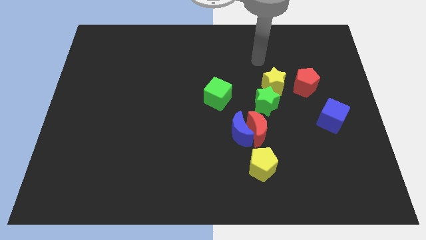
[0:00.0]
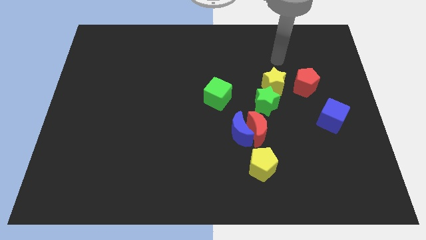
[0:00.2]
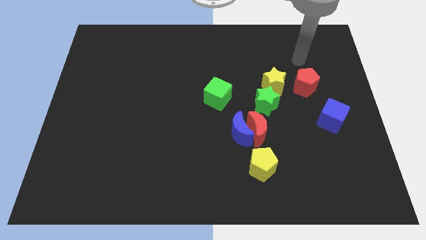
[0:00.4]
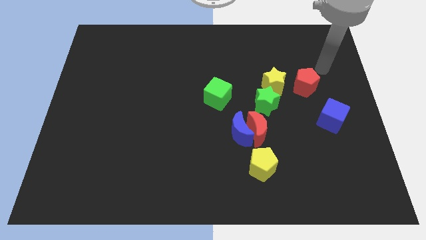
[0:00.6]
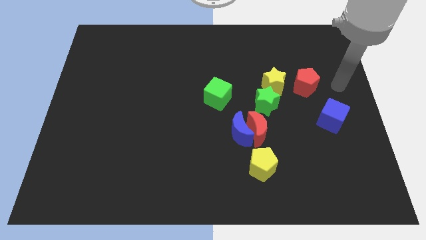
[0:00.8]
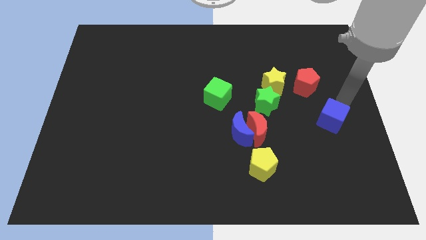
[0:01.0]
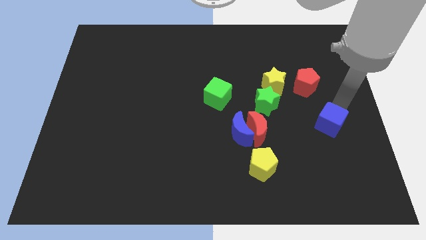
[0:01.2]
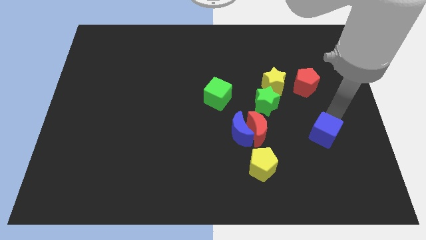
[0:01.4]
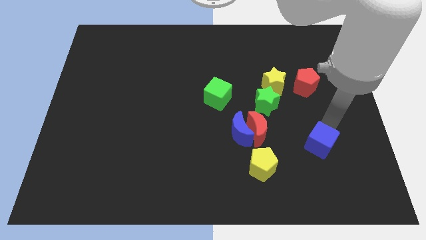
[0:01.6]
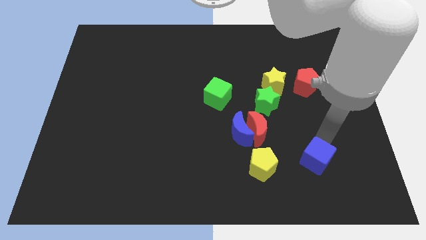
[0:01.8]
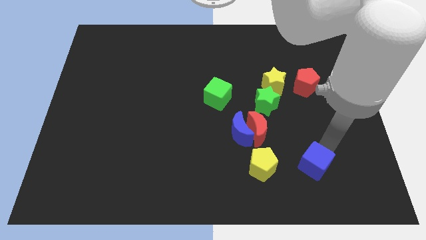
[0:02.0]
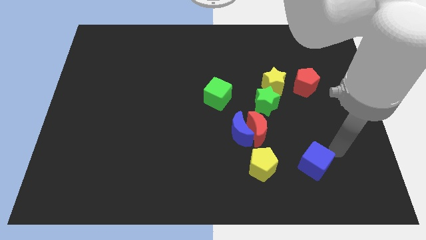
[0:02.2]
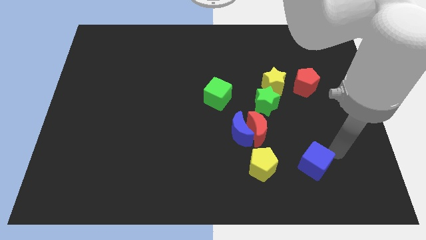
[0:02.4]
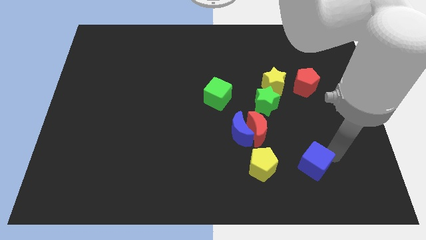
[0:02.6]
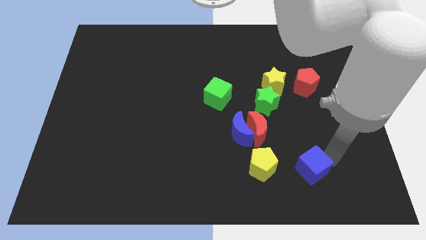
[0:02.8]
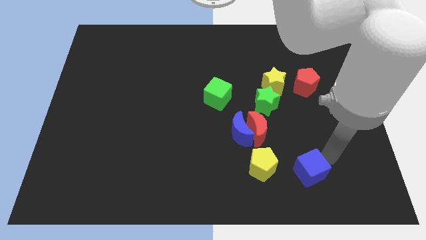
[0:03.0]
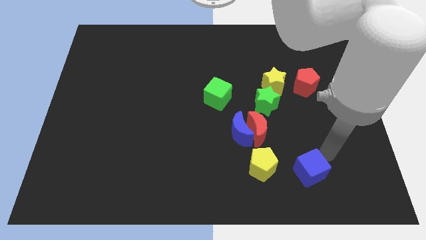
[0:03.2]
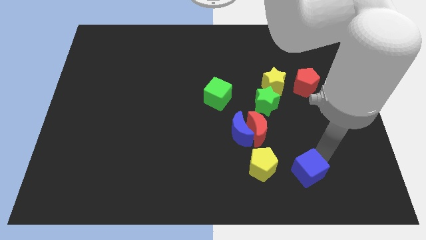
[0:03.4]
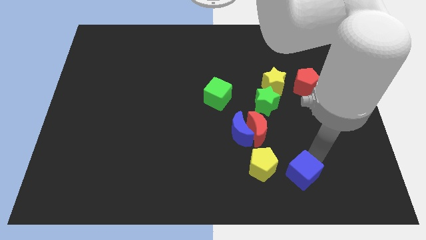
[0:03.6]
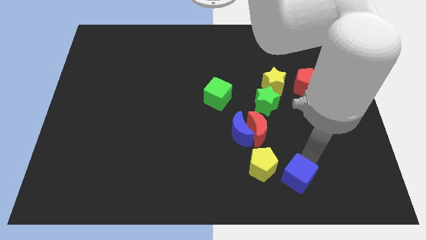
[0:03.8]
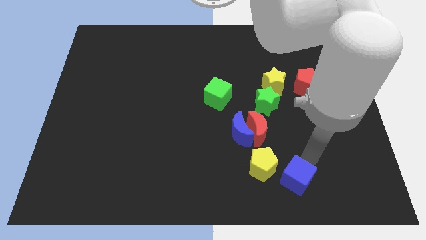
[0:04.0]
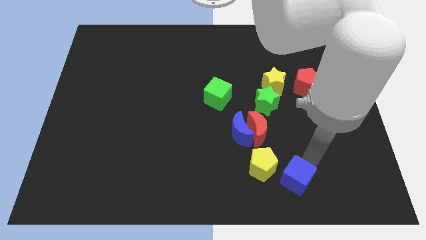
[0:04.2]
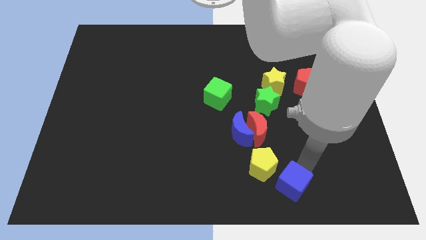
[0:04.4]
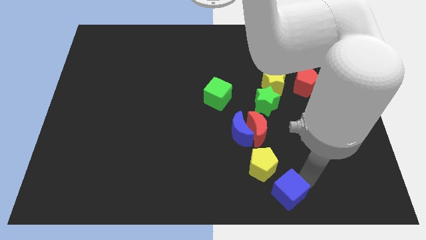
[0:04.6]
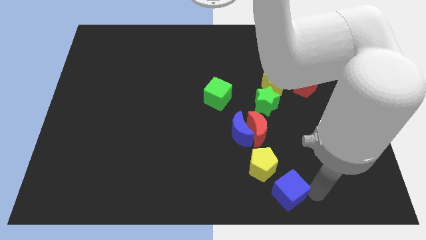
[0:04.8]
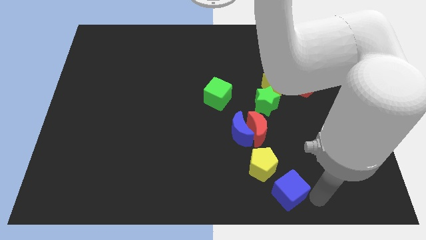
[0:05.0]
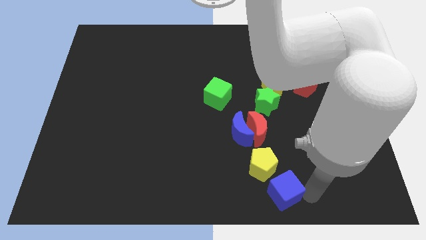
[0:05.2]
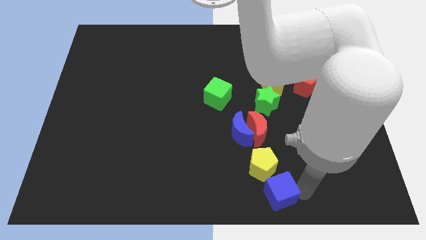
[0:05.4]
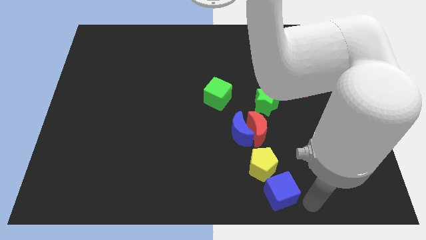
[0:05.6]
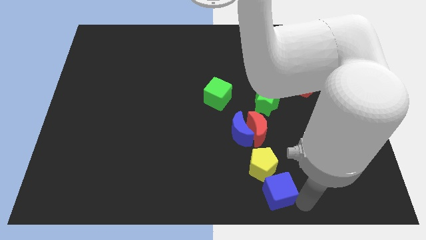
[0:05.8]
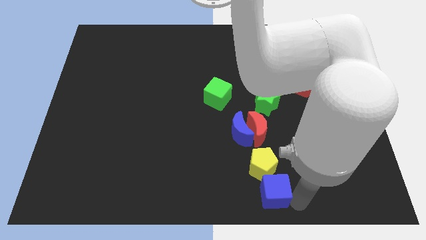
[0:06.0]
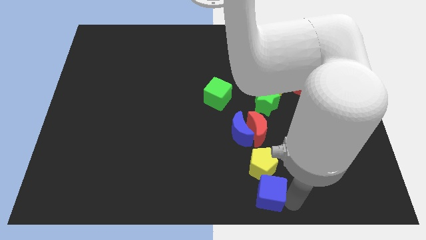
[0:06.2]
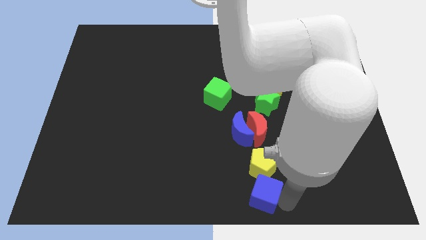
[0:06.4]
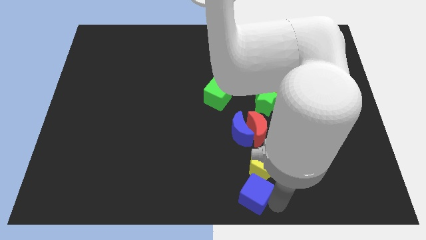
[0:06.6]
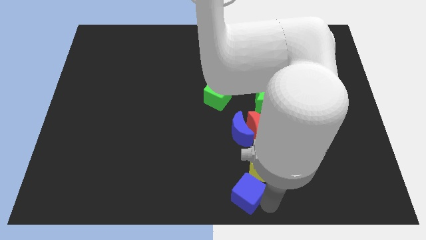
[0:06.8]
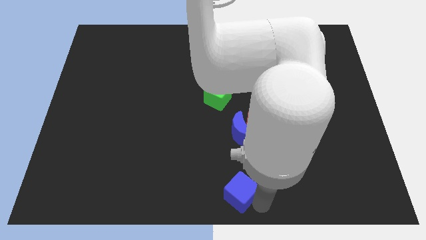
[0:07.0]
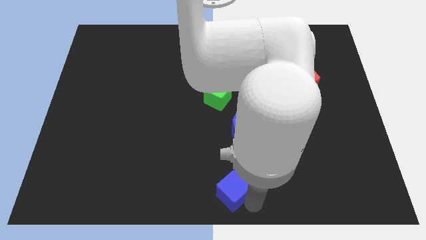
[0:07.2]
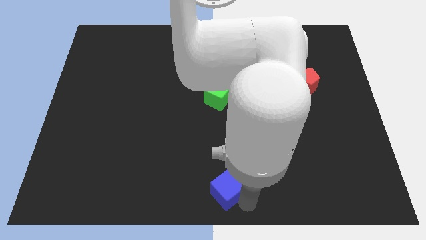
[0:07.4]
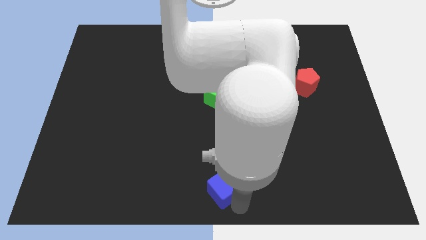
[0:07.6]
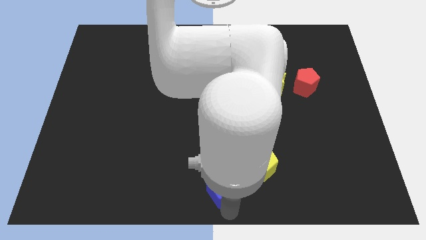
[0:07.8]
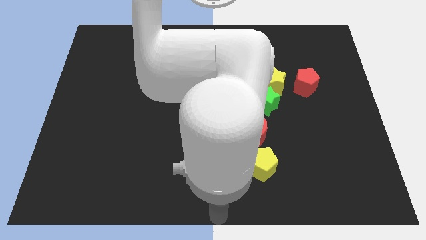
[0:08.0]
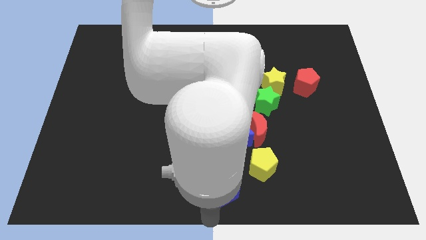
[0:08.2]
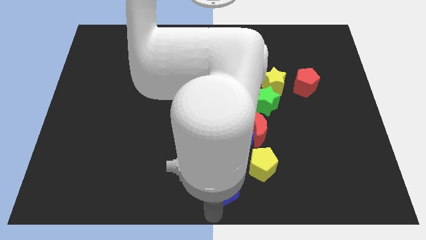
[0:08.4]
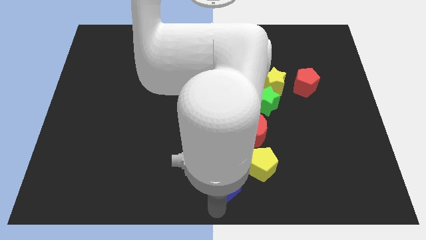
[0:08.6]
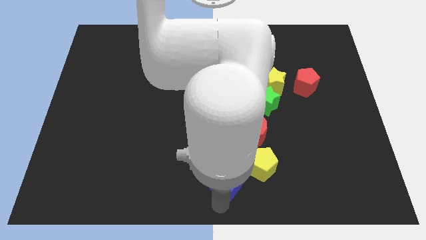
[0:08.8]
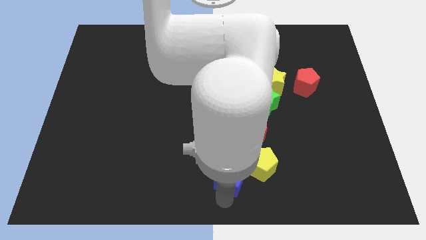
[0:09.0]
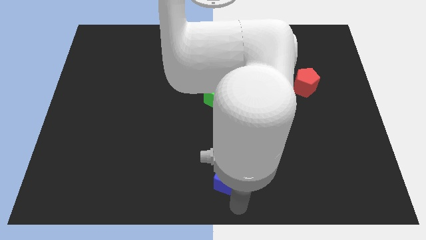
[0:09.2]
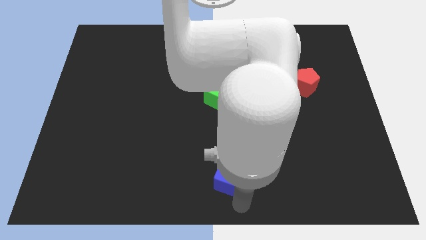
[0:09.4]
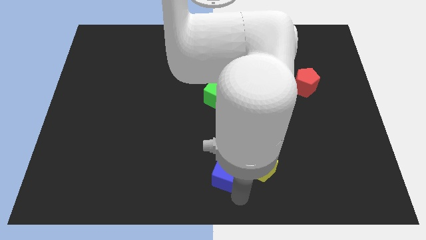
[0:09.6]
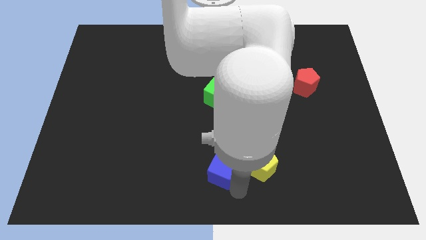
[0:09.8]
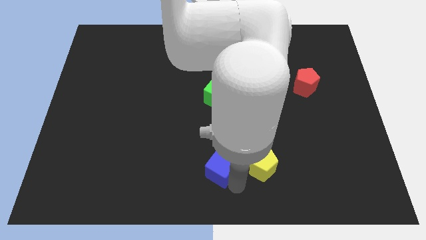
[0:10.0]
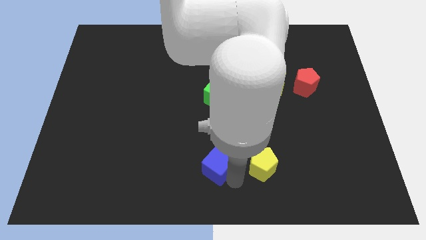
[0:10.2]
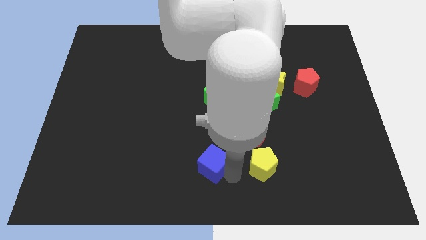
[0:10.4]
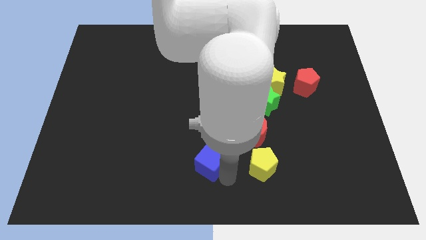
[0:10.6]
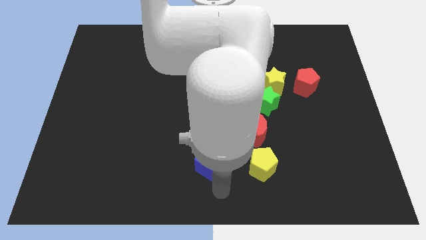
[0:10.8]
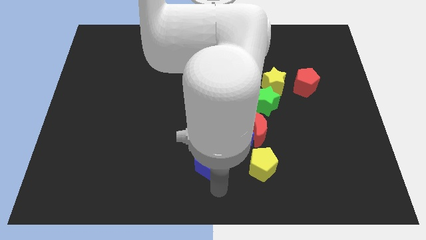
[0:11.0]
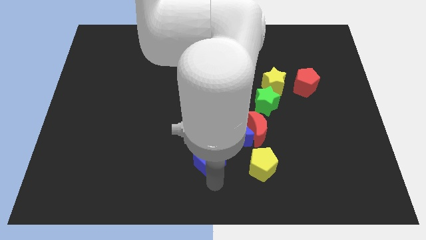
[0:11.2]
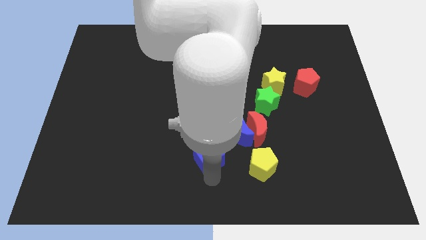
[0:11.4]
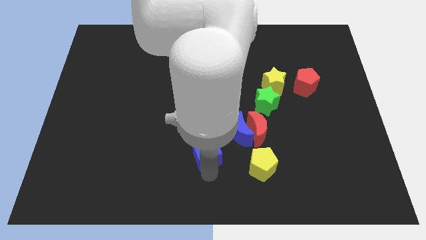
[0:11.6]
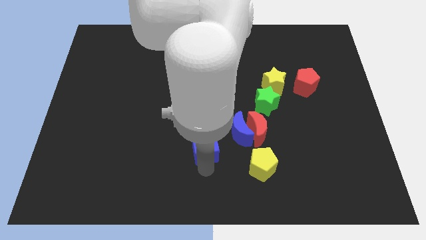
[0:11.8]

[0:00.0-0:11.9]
push the blue cube left of the blue moon
